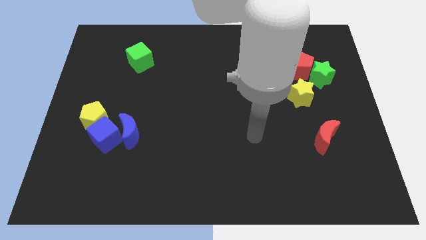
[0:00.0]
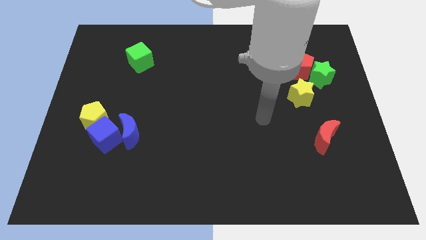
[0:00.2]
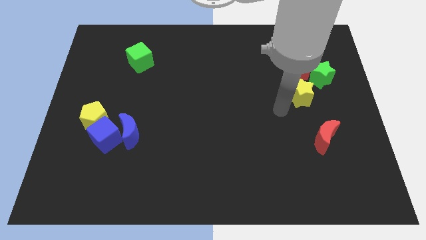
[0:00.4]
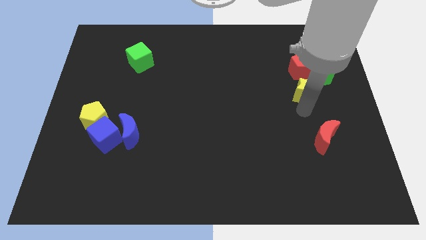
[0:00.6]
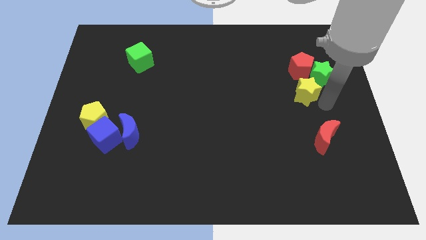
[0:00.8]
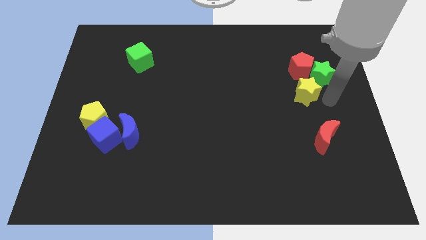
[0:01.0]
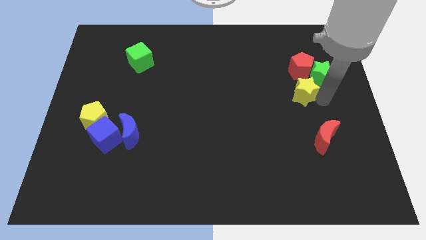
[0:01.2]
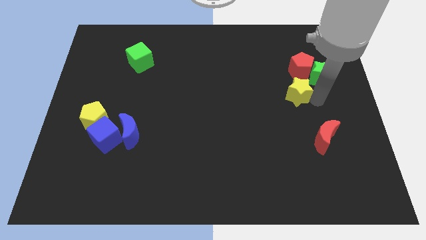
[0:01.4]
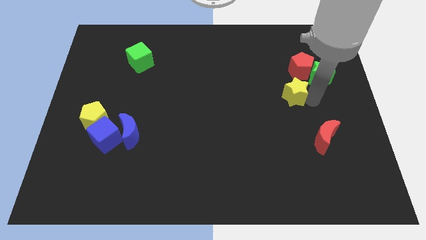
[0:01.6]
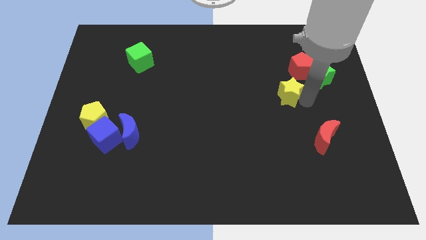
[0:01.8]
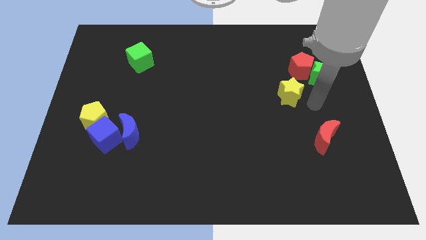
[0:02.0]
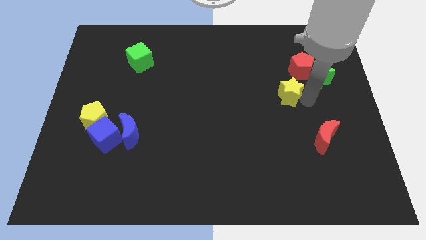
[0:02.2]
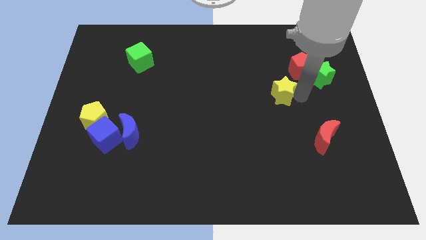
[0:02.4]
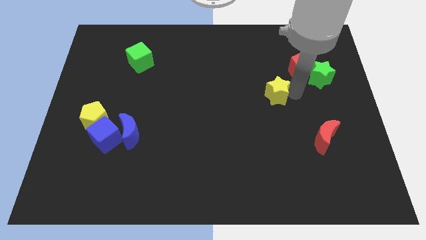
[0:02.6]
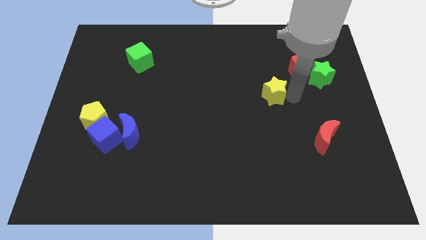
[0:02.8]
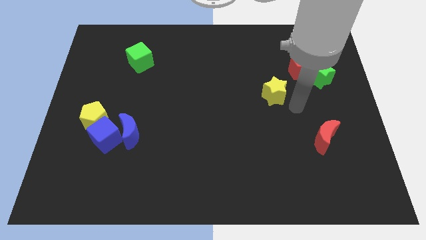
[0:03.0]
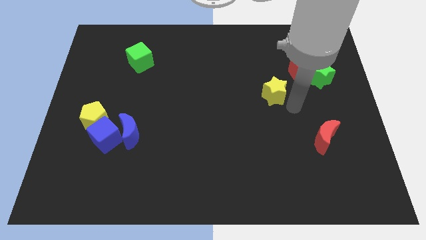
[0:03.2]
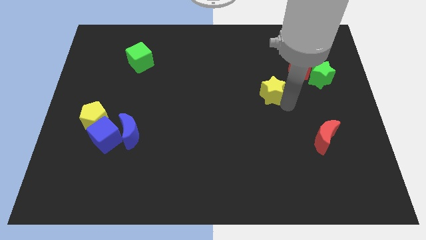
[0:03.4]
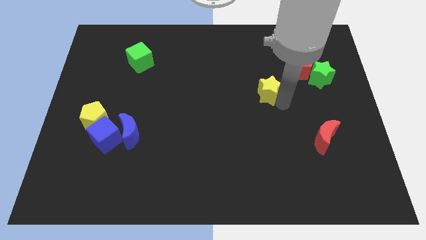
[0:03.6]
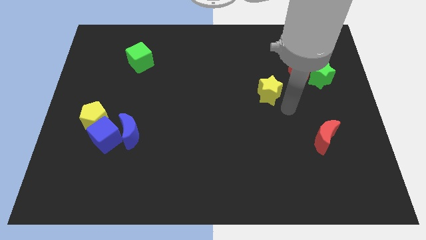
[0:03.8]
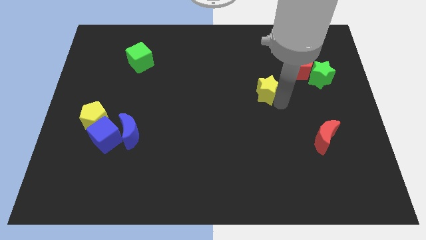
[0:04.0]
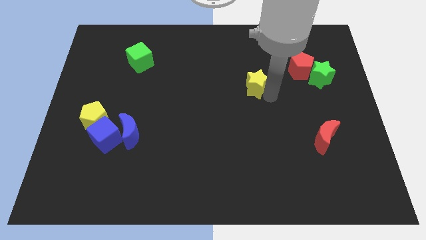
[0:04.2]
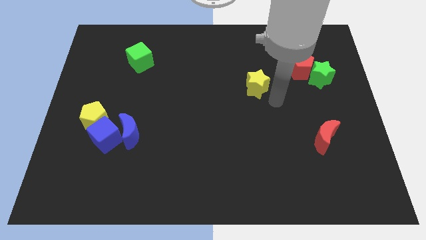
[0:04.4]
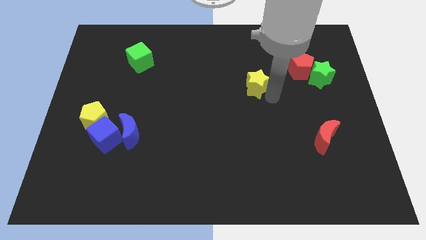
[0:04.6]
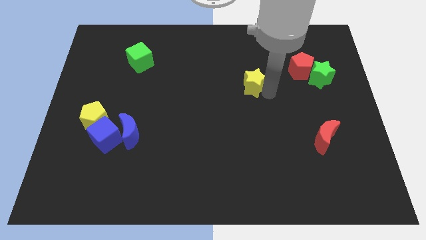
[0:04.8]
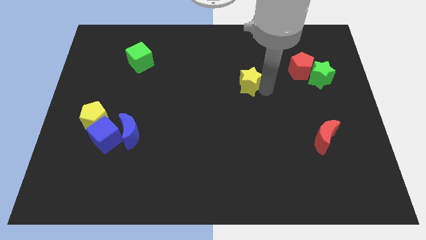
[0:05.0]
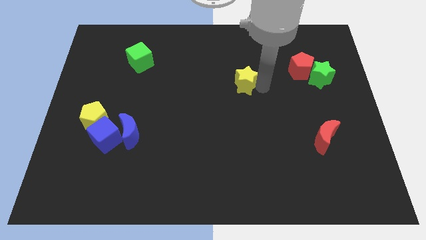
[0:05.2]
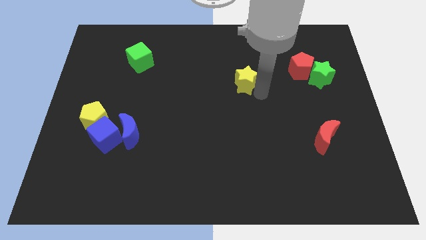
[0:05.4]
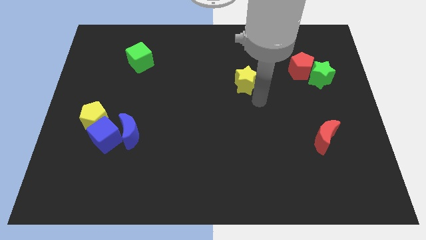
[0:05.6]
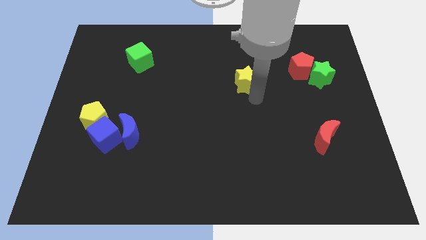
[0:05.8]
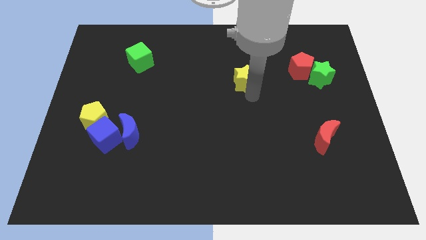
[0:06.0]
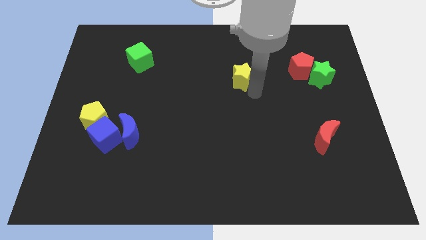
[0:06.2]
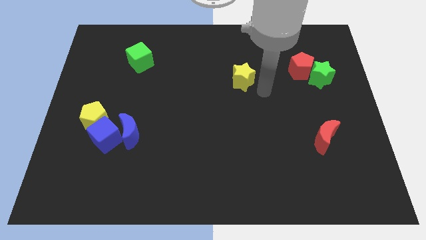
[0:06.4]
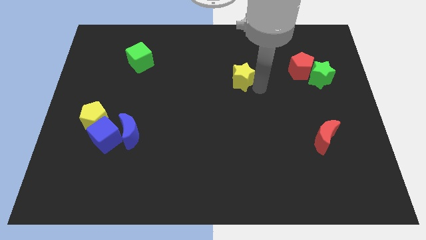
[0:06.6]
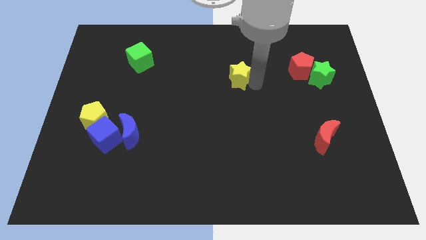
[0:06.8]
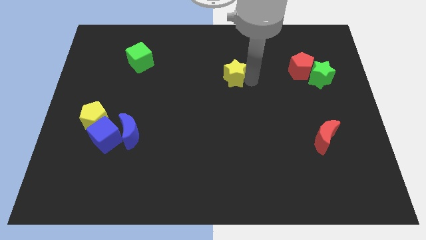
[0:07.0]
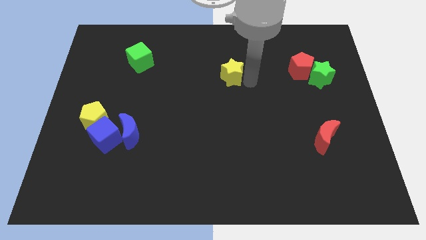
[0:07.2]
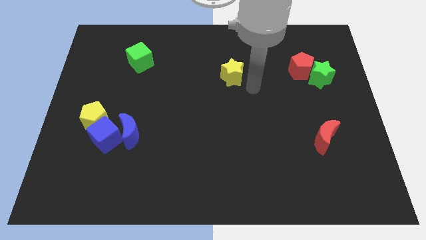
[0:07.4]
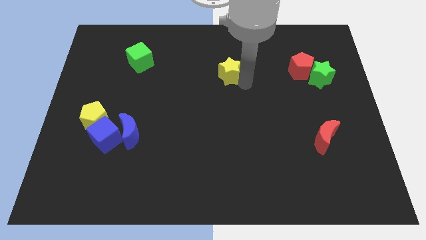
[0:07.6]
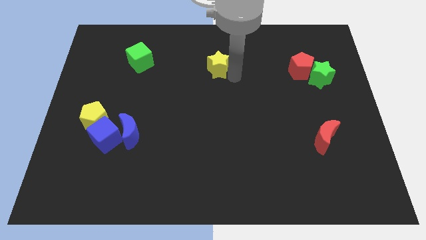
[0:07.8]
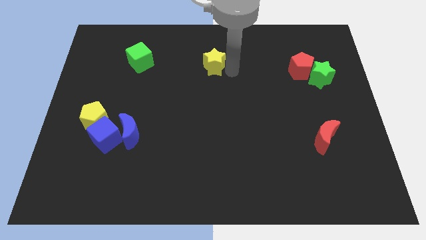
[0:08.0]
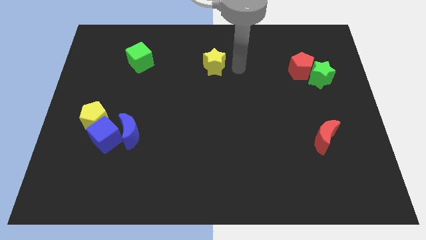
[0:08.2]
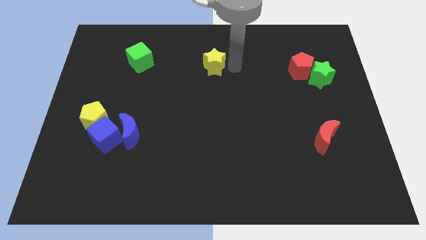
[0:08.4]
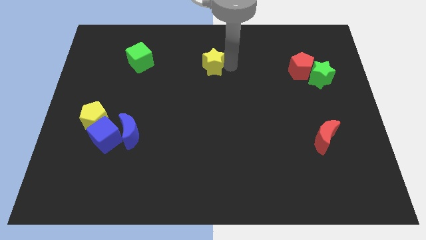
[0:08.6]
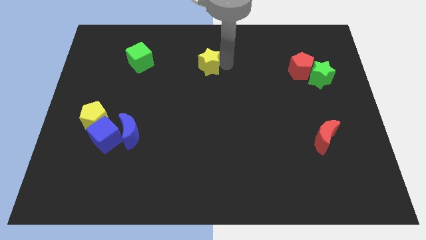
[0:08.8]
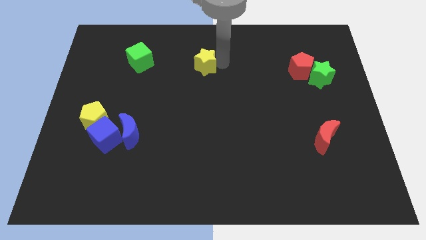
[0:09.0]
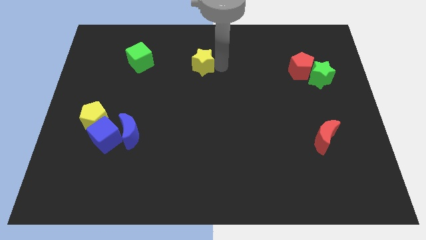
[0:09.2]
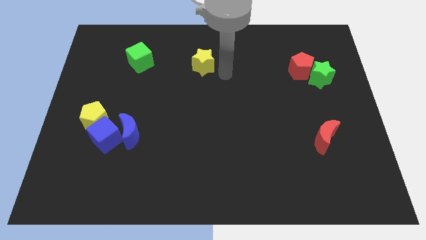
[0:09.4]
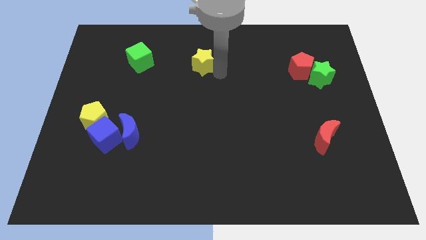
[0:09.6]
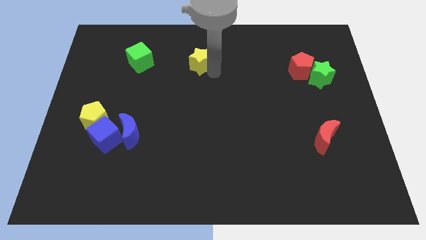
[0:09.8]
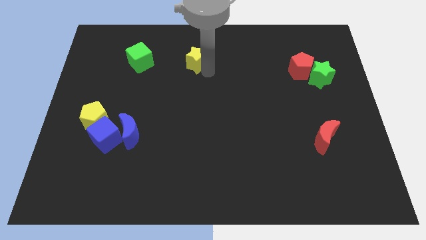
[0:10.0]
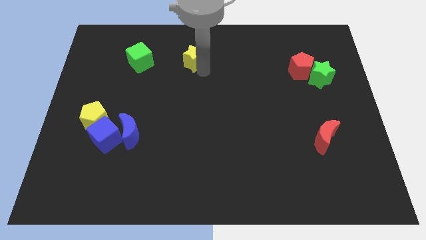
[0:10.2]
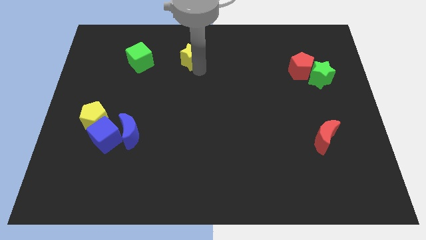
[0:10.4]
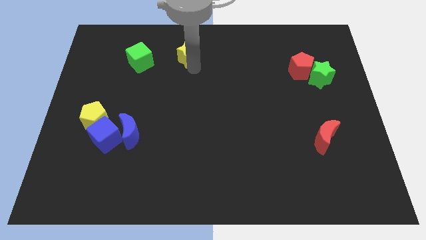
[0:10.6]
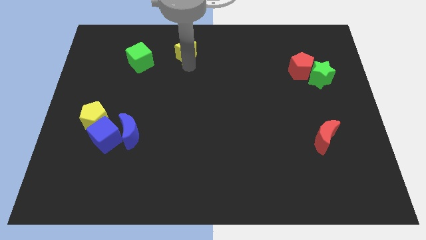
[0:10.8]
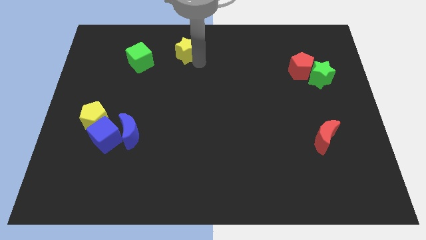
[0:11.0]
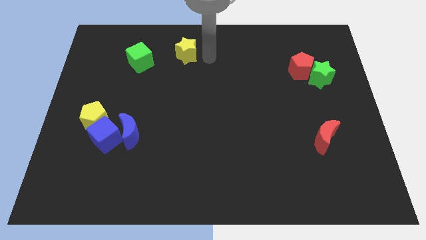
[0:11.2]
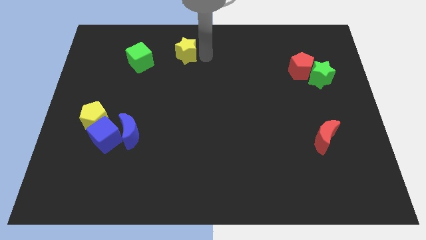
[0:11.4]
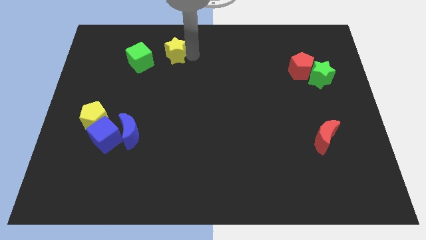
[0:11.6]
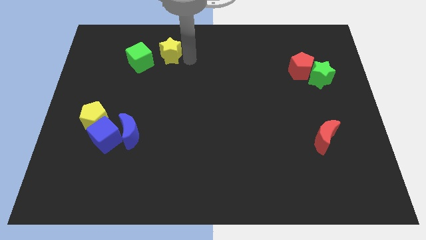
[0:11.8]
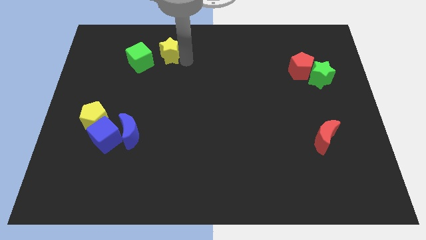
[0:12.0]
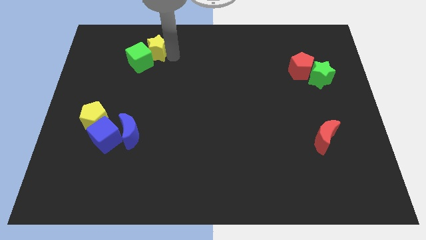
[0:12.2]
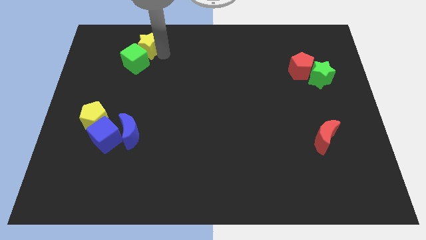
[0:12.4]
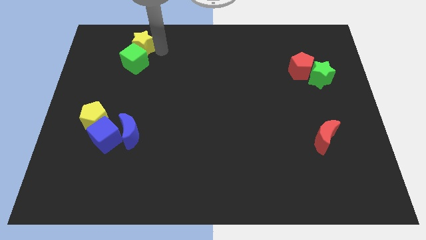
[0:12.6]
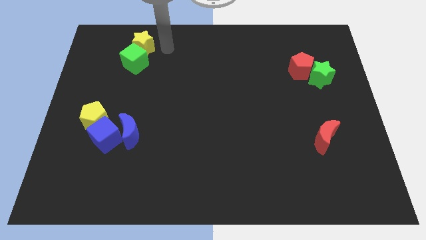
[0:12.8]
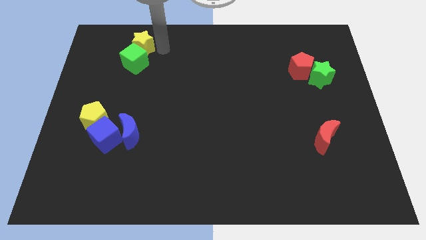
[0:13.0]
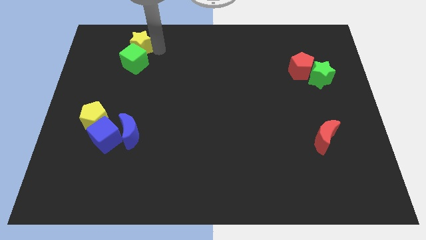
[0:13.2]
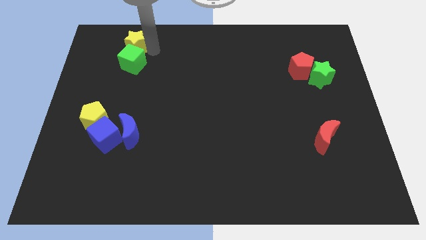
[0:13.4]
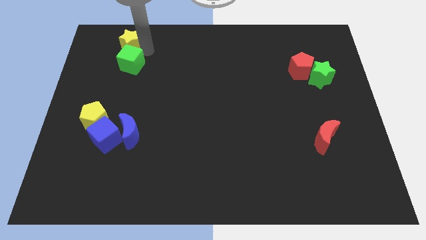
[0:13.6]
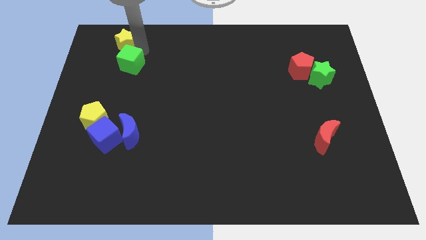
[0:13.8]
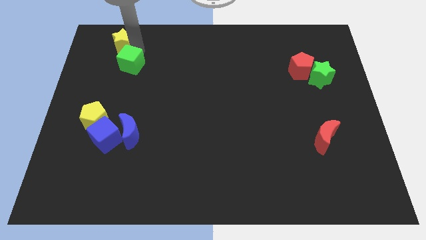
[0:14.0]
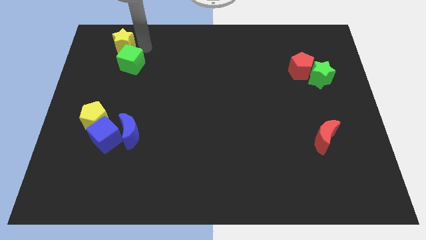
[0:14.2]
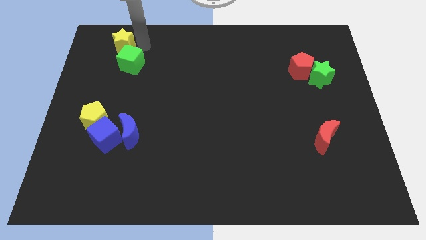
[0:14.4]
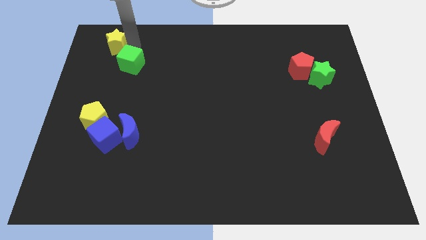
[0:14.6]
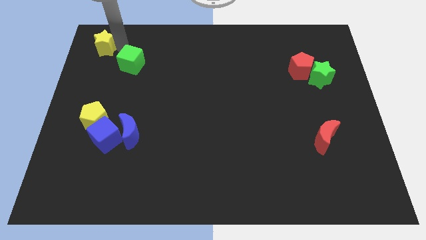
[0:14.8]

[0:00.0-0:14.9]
move the yellow star to the top left corner
